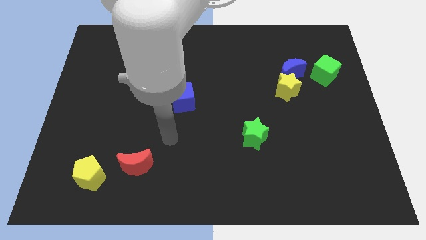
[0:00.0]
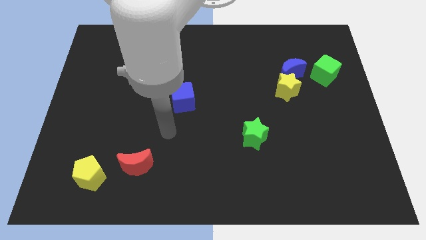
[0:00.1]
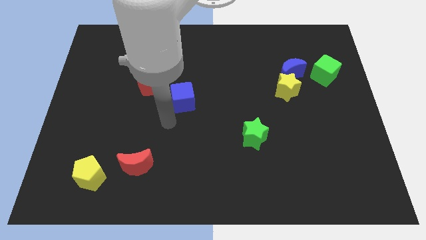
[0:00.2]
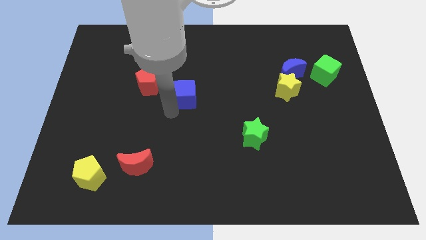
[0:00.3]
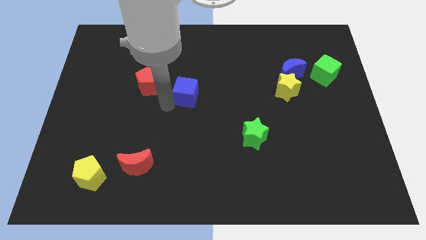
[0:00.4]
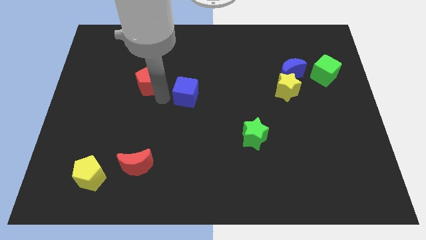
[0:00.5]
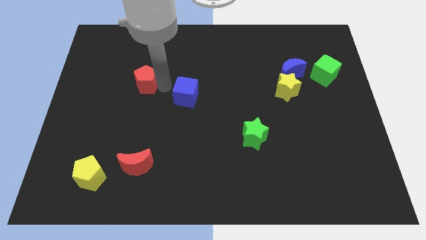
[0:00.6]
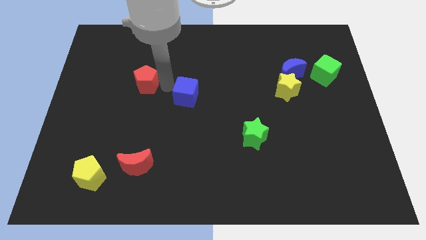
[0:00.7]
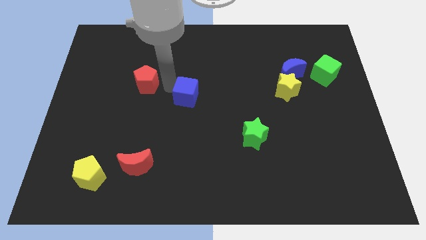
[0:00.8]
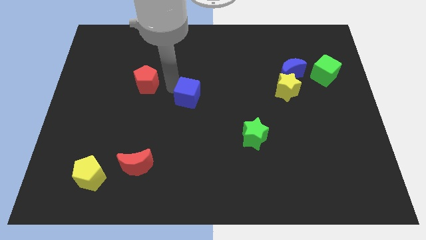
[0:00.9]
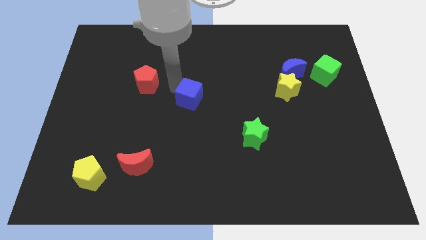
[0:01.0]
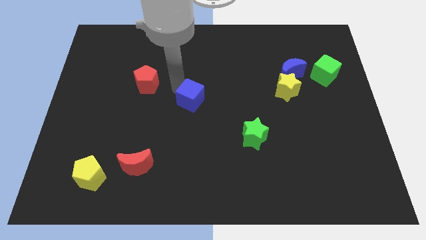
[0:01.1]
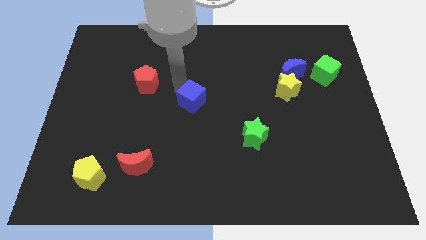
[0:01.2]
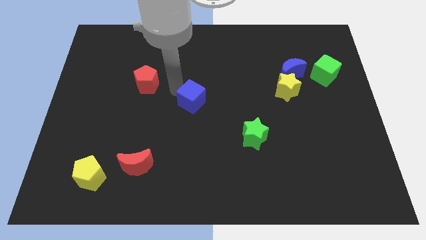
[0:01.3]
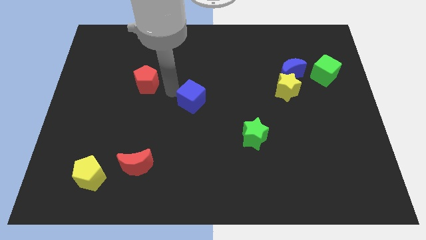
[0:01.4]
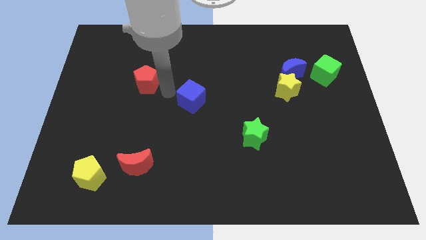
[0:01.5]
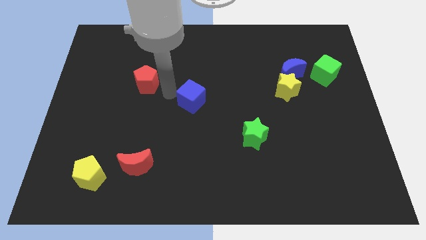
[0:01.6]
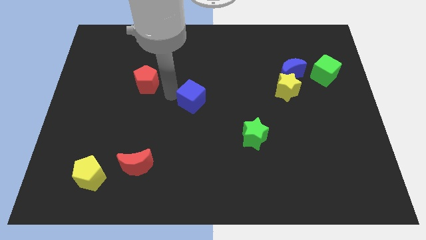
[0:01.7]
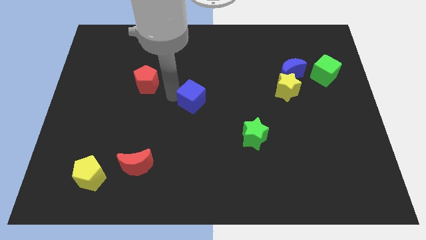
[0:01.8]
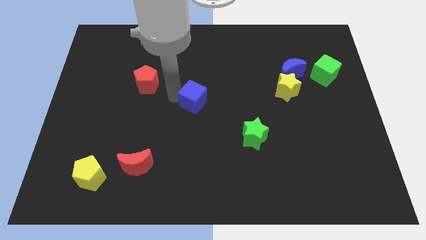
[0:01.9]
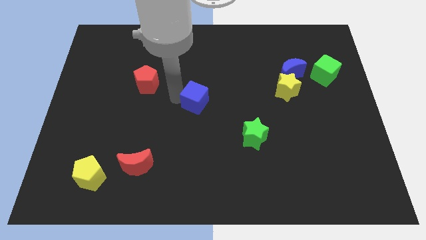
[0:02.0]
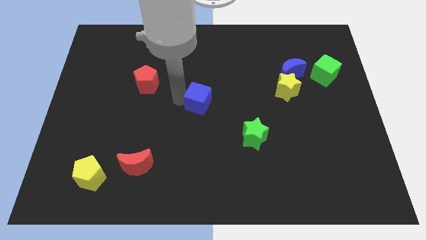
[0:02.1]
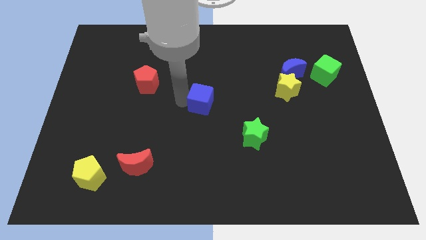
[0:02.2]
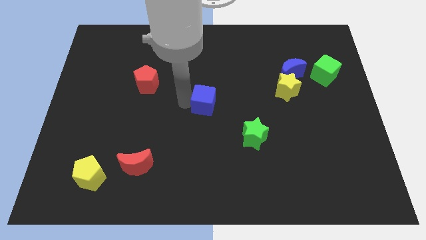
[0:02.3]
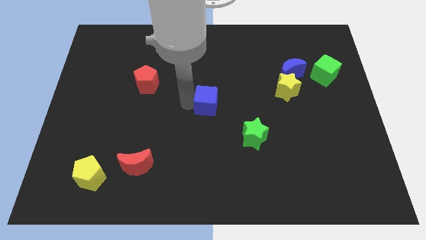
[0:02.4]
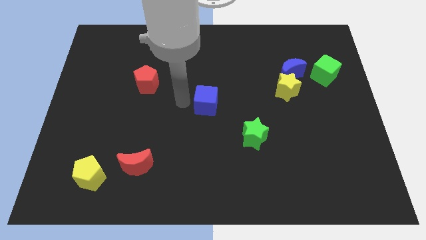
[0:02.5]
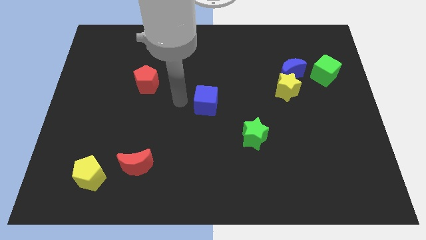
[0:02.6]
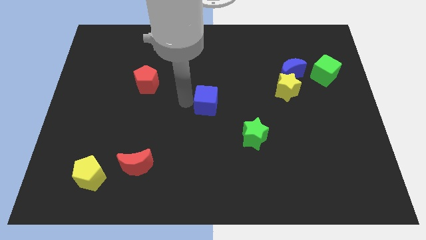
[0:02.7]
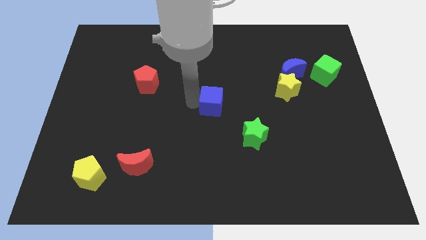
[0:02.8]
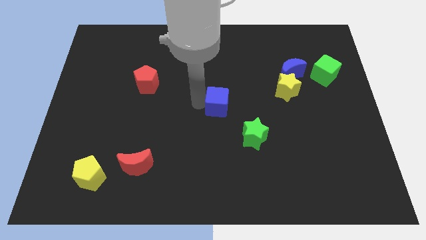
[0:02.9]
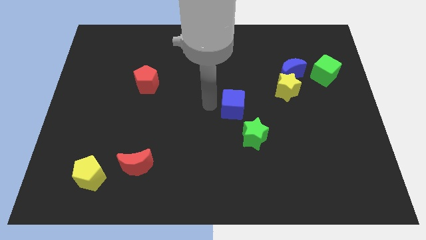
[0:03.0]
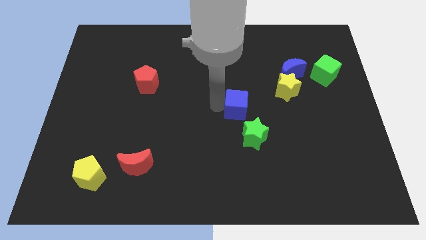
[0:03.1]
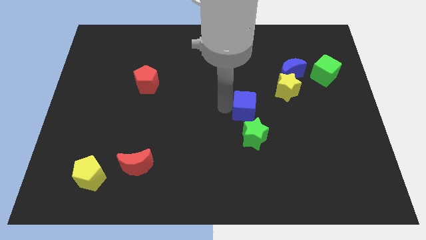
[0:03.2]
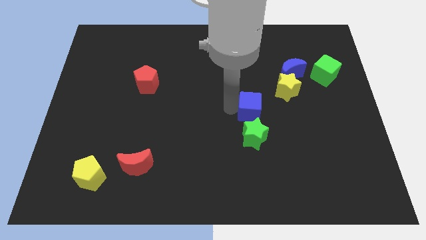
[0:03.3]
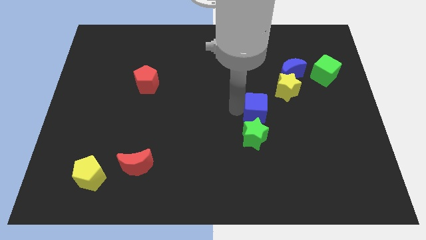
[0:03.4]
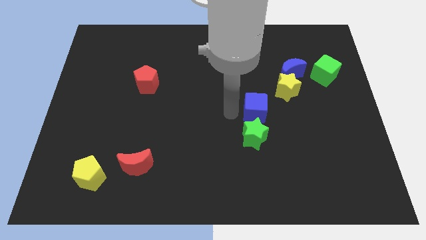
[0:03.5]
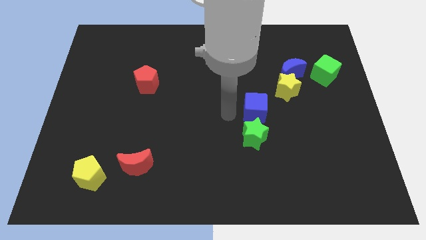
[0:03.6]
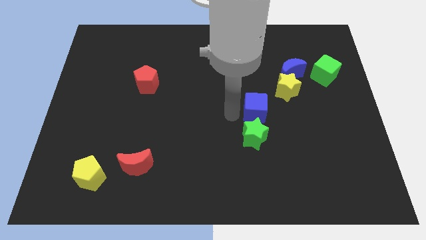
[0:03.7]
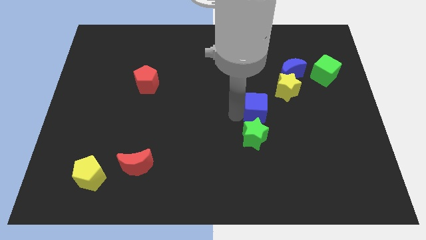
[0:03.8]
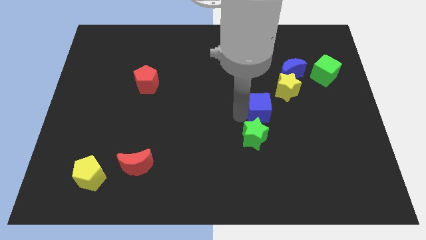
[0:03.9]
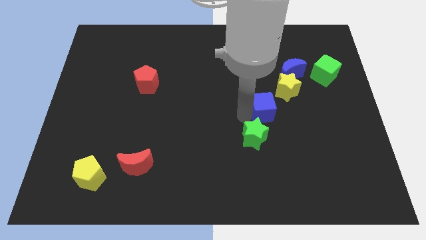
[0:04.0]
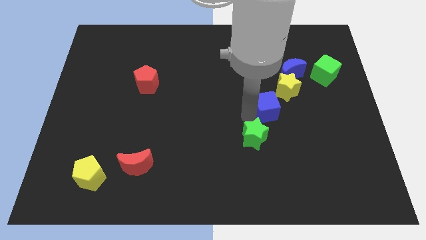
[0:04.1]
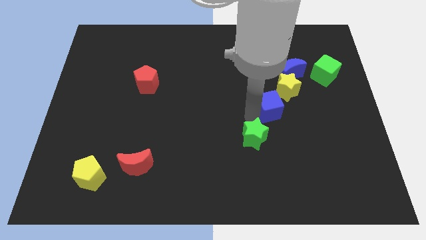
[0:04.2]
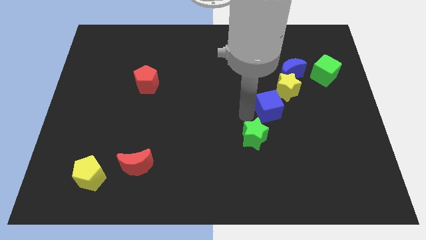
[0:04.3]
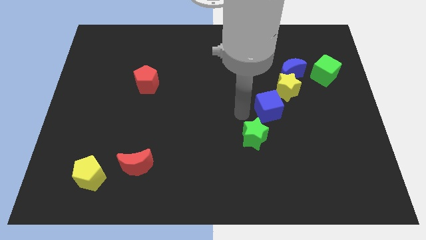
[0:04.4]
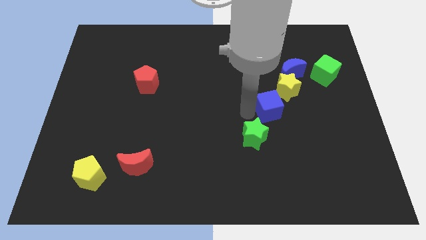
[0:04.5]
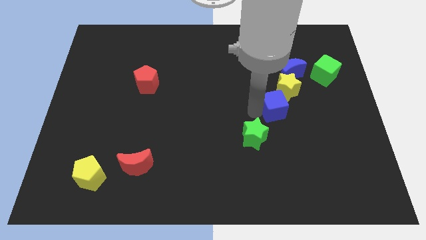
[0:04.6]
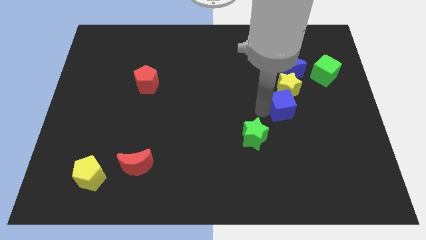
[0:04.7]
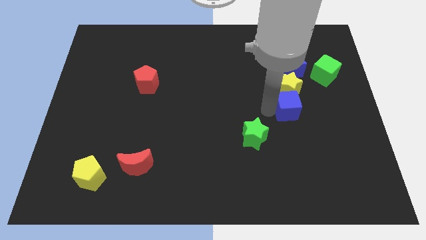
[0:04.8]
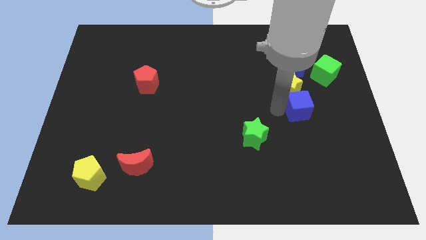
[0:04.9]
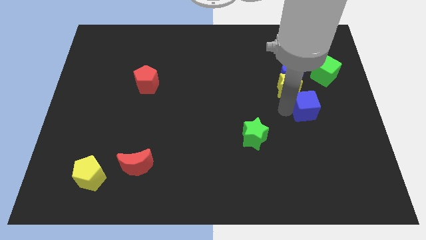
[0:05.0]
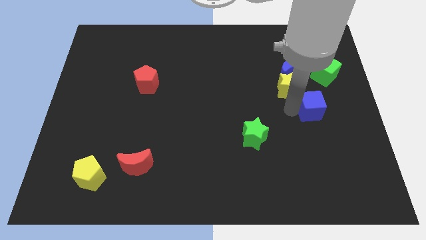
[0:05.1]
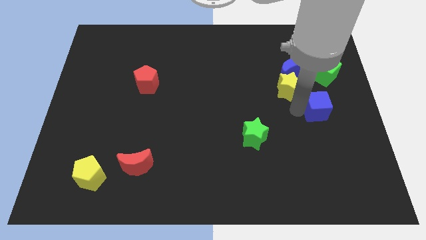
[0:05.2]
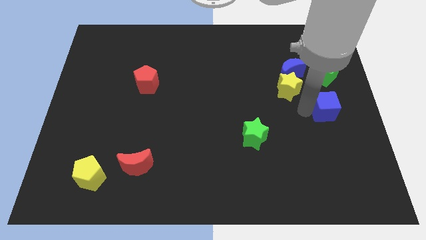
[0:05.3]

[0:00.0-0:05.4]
slide the blue cube to the right side of the board

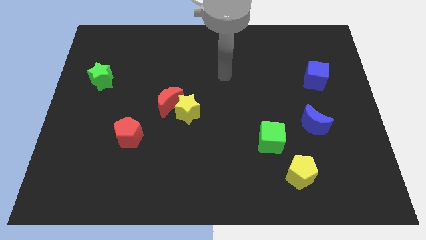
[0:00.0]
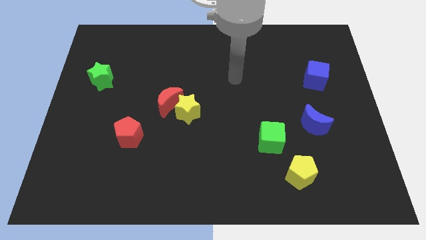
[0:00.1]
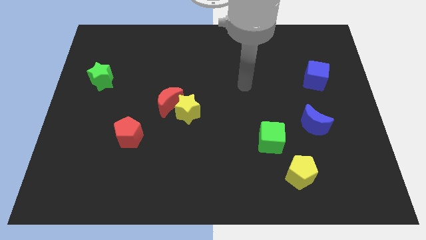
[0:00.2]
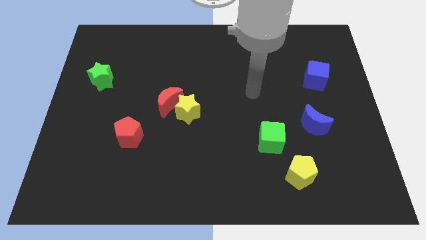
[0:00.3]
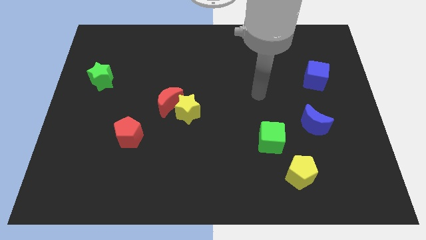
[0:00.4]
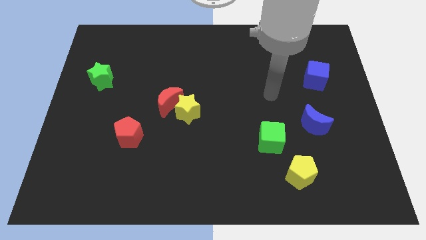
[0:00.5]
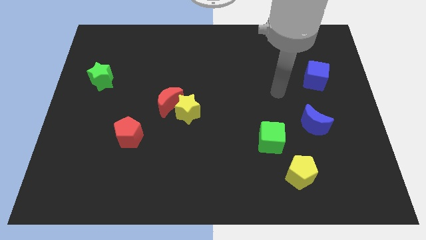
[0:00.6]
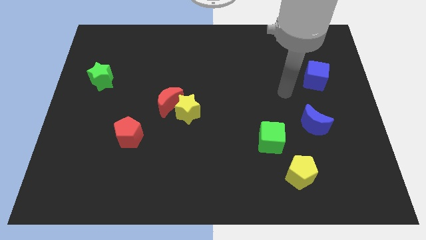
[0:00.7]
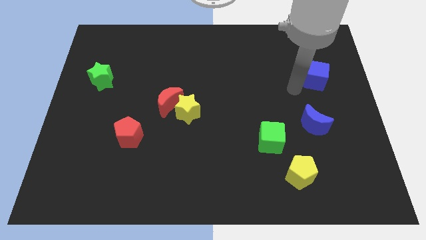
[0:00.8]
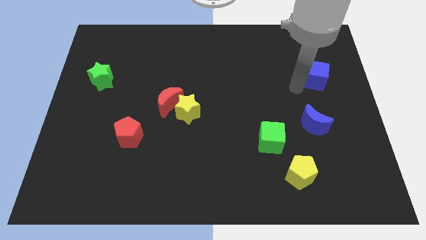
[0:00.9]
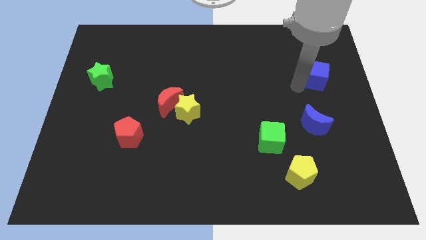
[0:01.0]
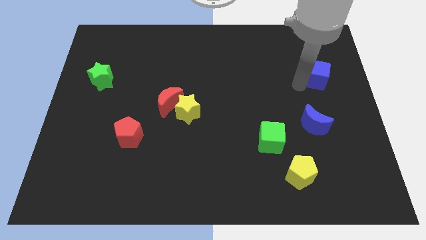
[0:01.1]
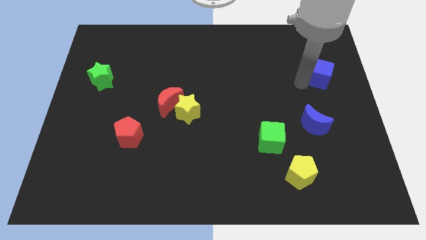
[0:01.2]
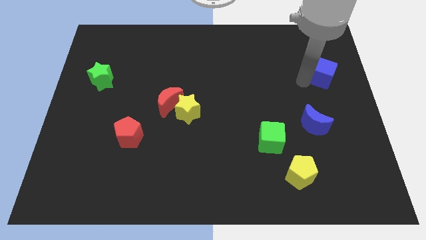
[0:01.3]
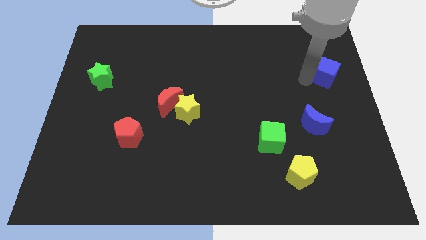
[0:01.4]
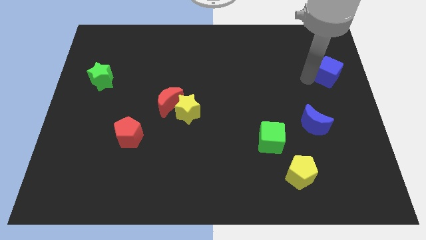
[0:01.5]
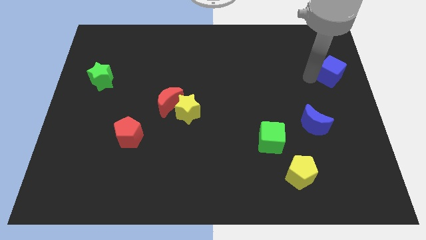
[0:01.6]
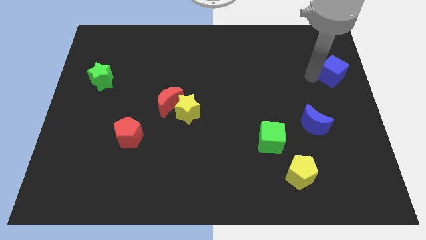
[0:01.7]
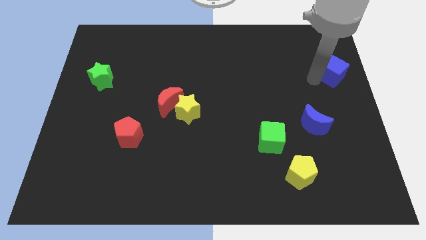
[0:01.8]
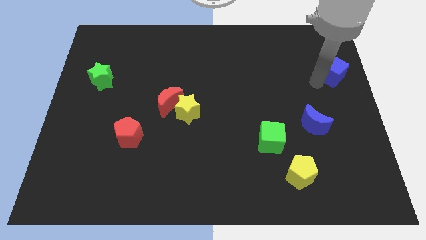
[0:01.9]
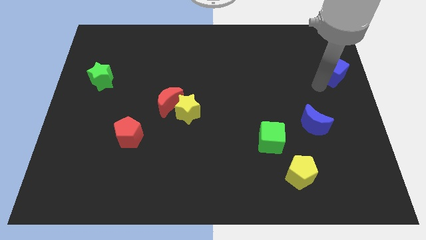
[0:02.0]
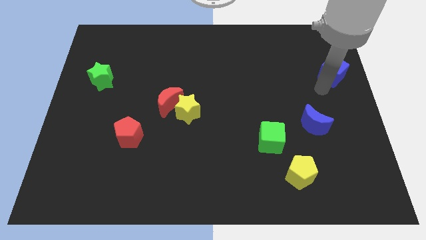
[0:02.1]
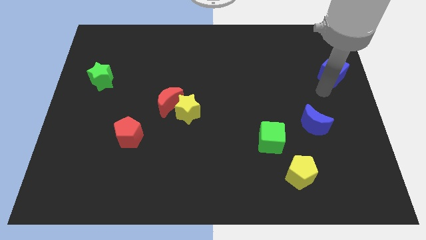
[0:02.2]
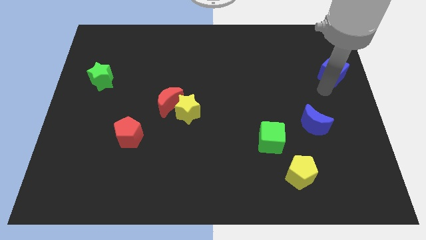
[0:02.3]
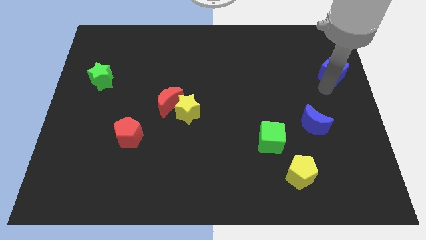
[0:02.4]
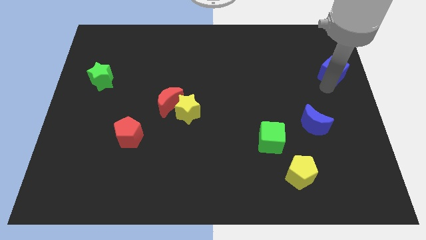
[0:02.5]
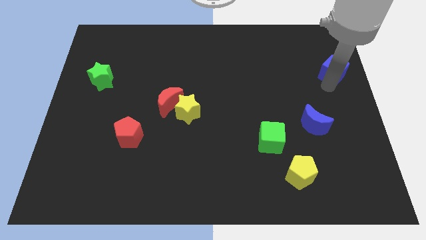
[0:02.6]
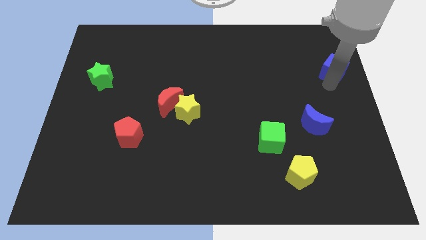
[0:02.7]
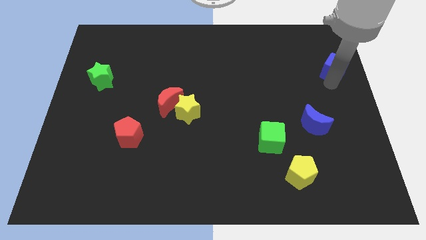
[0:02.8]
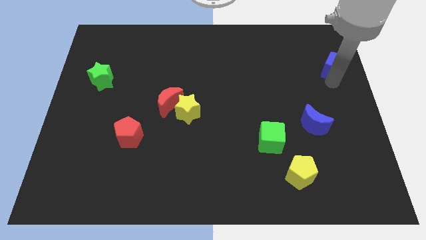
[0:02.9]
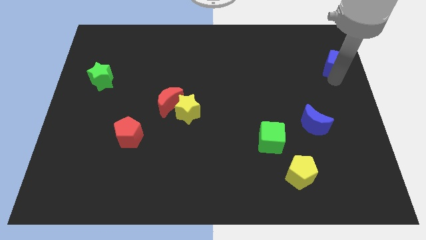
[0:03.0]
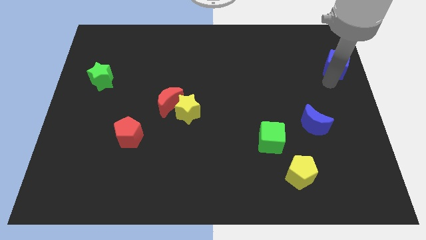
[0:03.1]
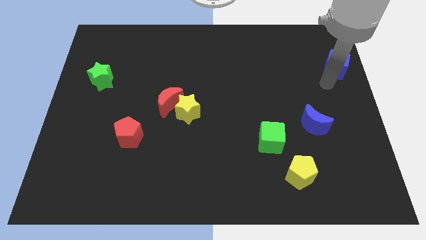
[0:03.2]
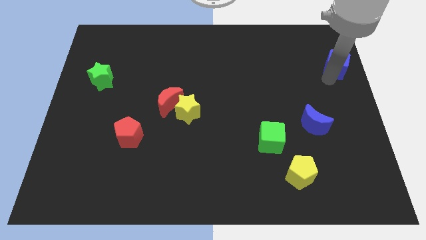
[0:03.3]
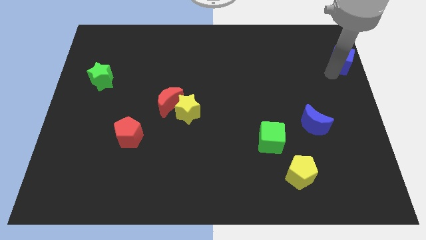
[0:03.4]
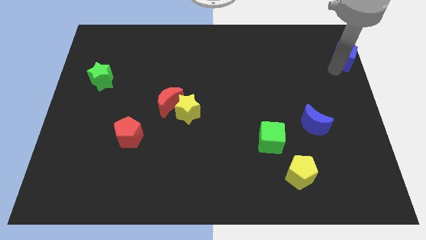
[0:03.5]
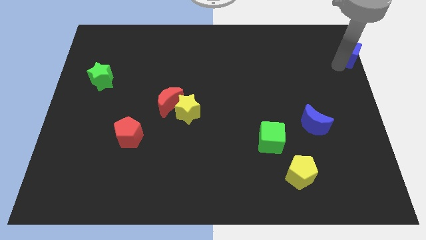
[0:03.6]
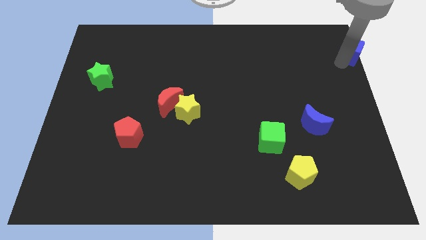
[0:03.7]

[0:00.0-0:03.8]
slide the blue cube to the top right corner
